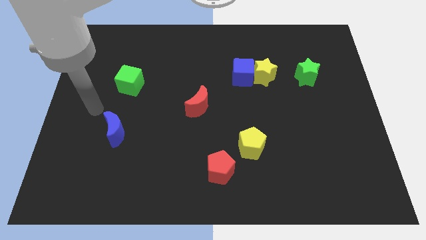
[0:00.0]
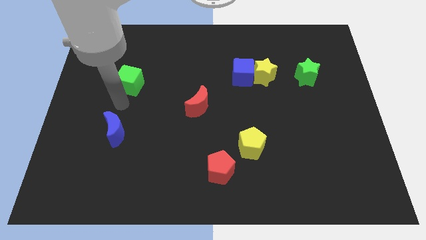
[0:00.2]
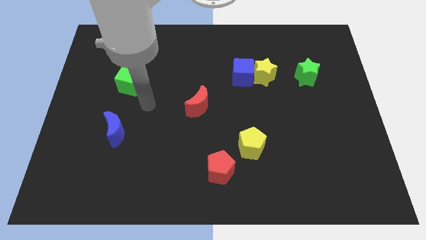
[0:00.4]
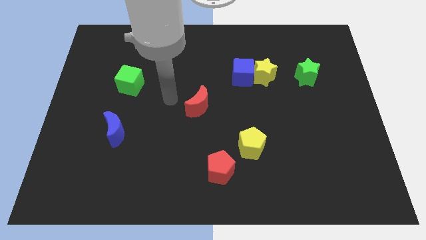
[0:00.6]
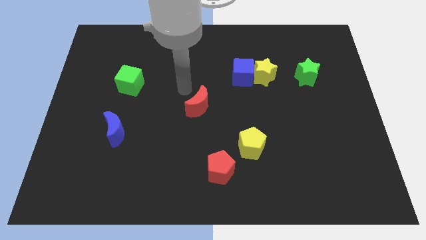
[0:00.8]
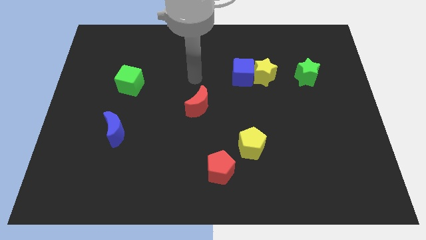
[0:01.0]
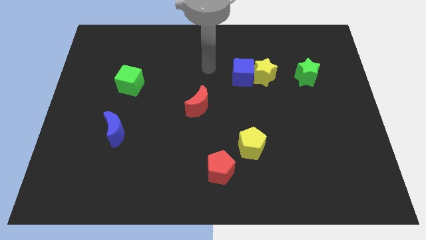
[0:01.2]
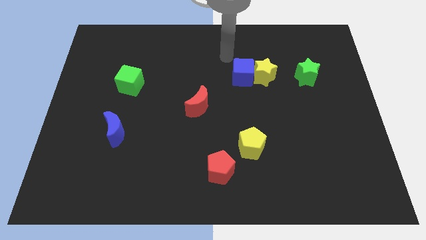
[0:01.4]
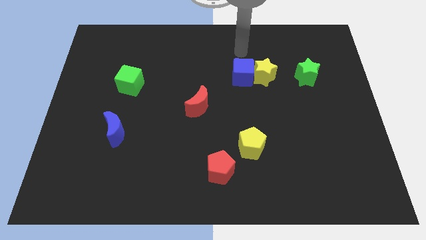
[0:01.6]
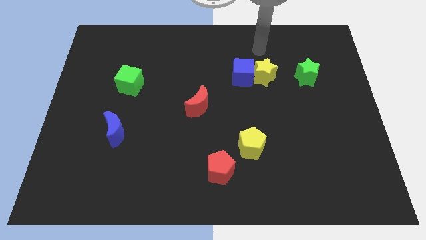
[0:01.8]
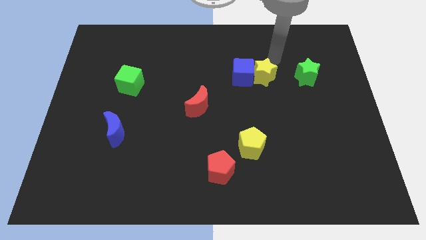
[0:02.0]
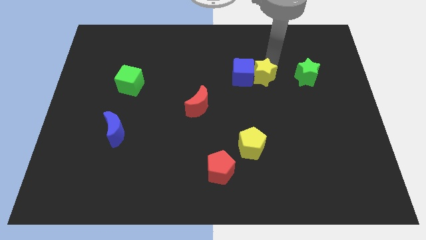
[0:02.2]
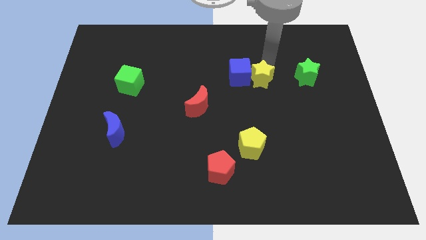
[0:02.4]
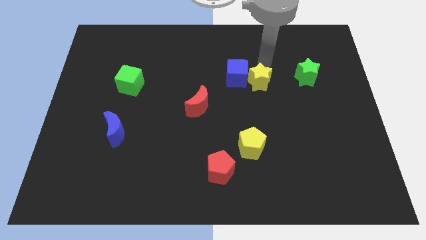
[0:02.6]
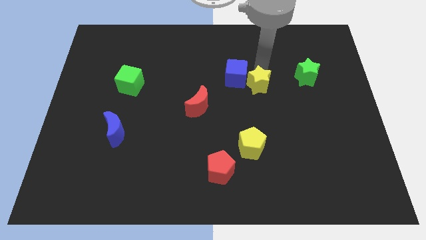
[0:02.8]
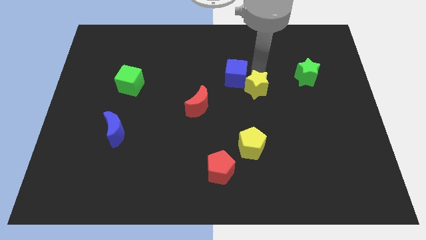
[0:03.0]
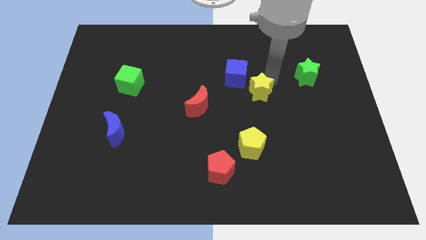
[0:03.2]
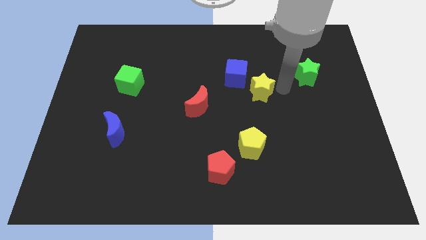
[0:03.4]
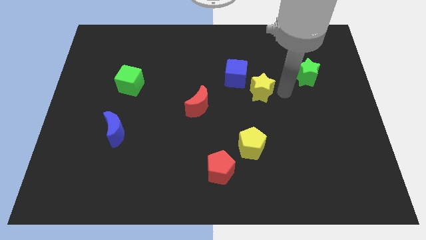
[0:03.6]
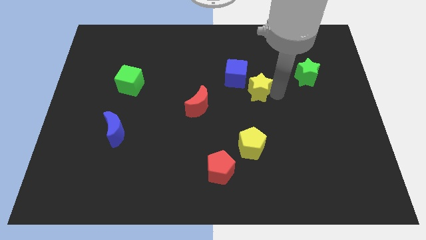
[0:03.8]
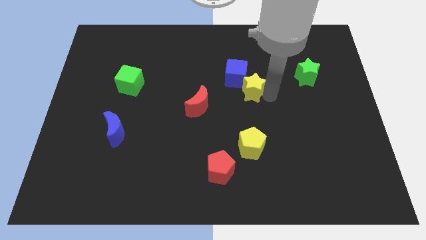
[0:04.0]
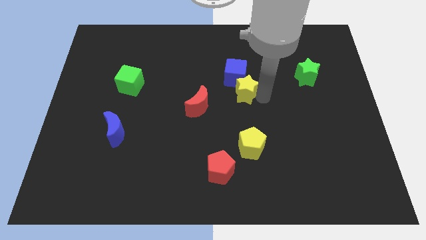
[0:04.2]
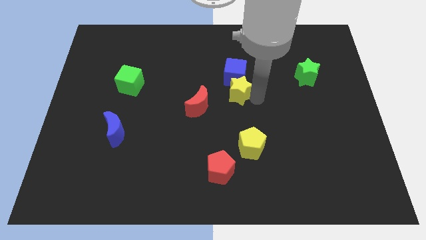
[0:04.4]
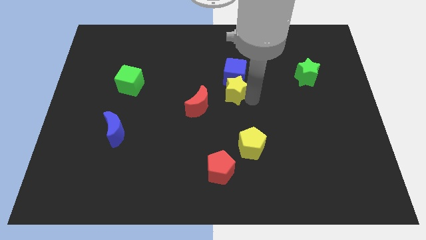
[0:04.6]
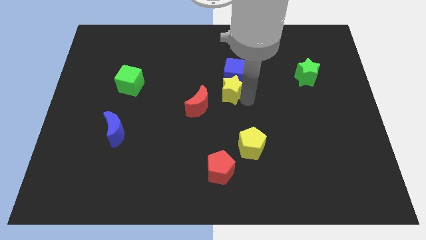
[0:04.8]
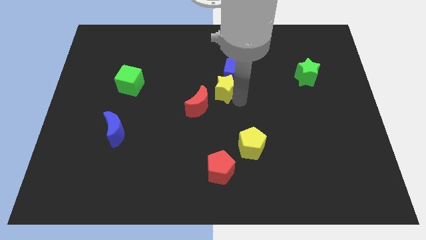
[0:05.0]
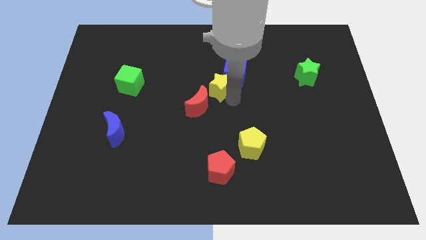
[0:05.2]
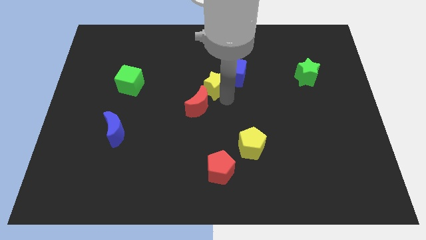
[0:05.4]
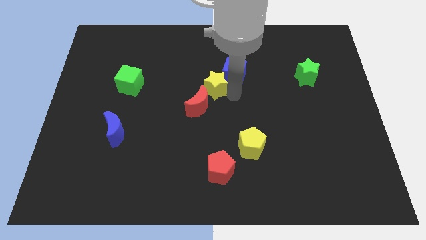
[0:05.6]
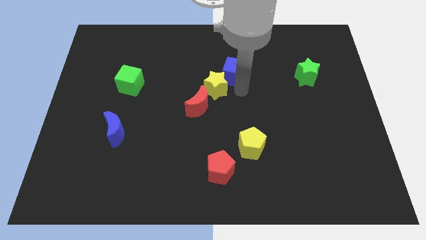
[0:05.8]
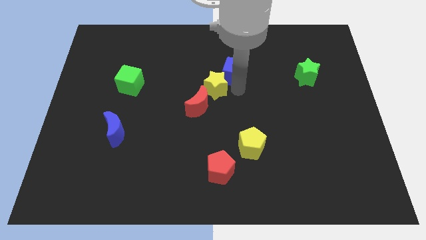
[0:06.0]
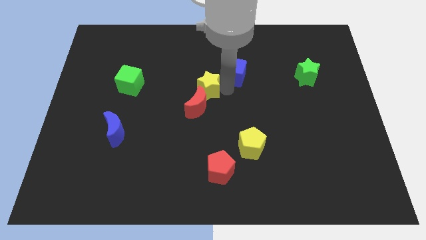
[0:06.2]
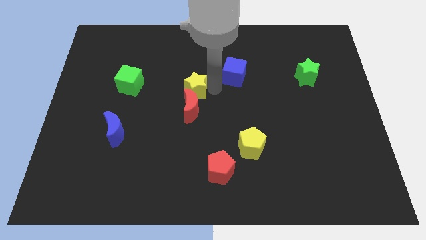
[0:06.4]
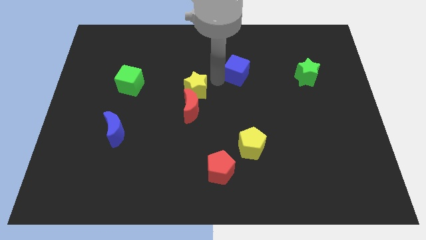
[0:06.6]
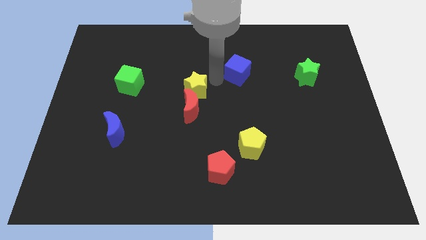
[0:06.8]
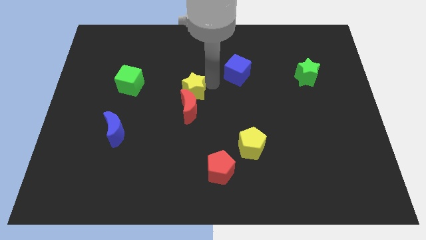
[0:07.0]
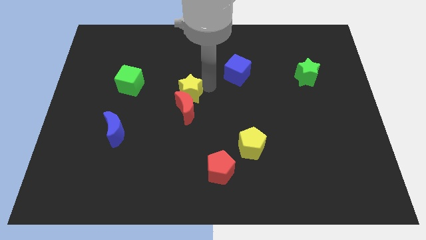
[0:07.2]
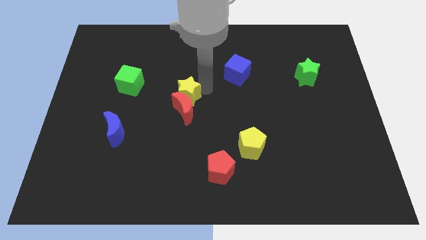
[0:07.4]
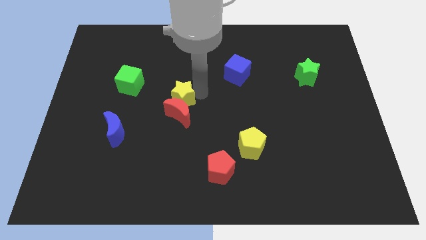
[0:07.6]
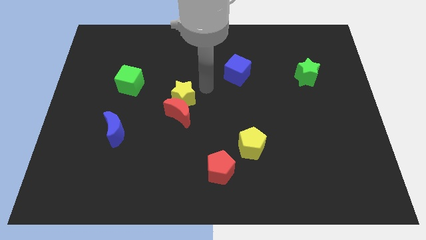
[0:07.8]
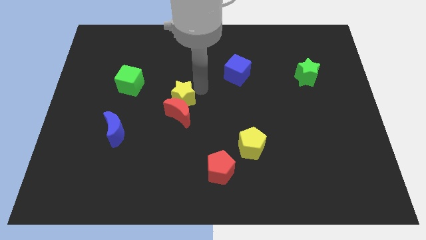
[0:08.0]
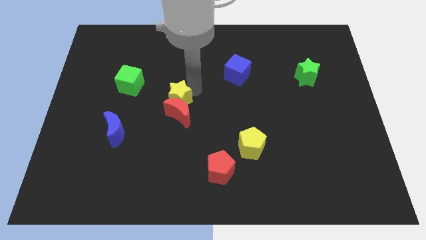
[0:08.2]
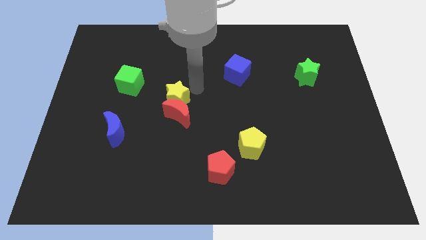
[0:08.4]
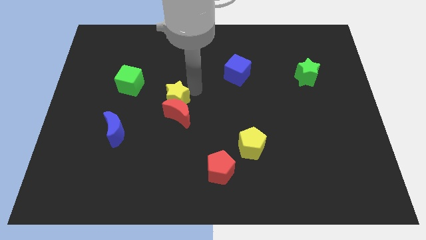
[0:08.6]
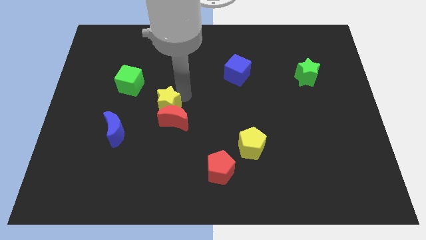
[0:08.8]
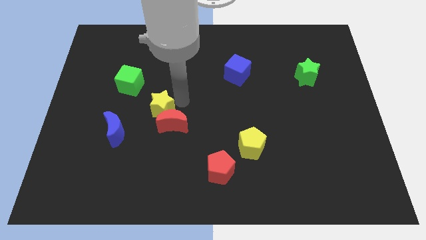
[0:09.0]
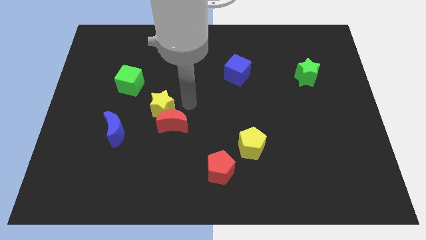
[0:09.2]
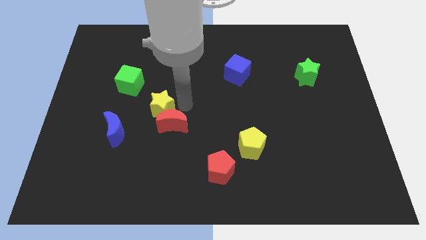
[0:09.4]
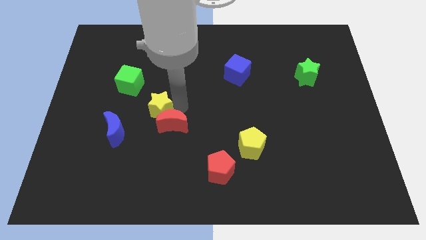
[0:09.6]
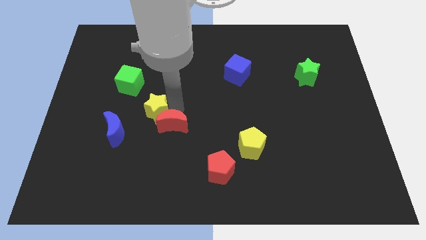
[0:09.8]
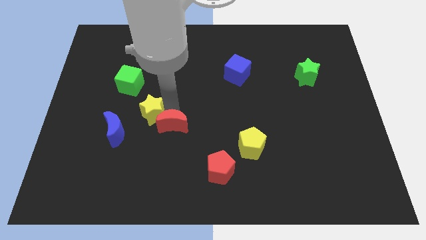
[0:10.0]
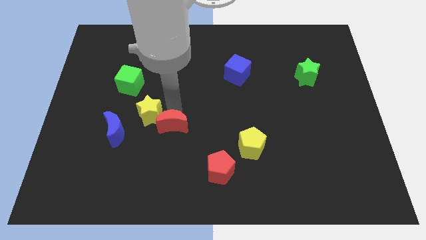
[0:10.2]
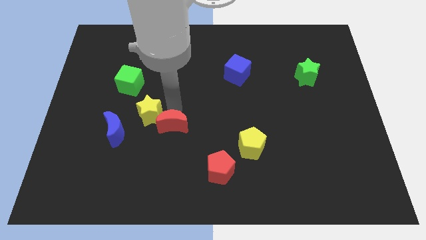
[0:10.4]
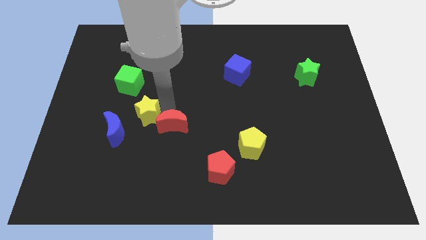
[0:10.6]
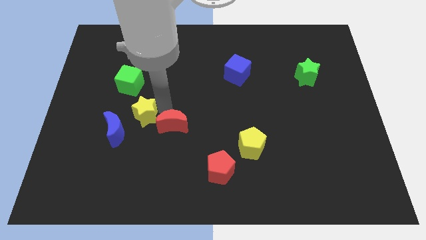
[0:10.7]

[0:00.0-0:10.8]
put the yellow star to the bottom of the green cube

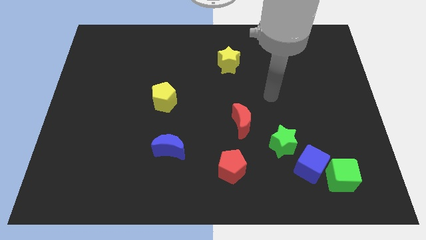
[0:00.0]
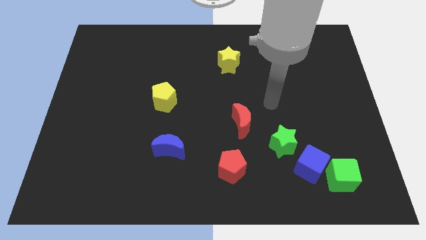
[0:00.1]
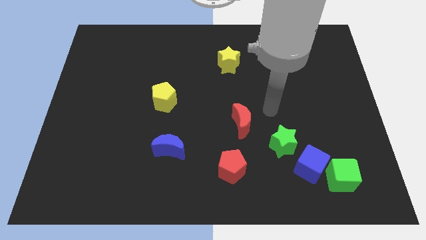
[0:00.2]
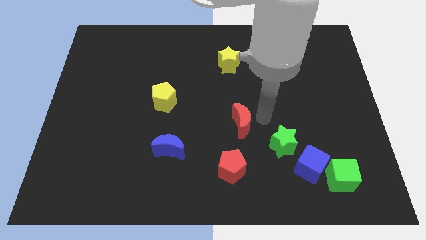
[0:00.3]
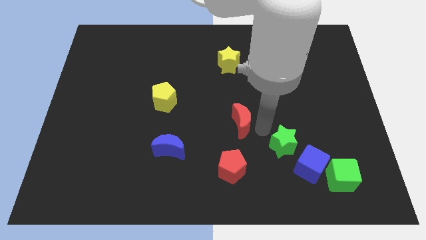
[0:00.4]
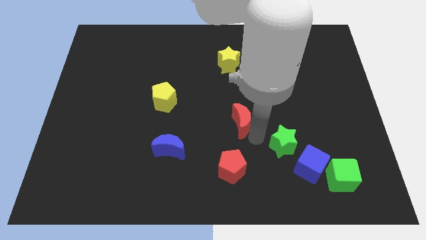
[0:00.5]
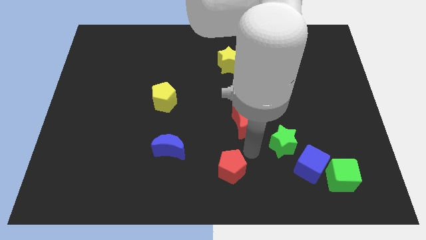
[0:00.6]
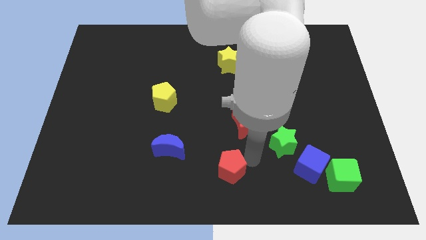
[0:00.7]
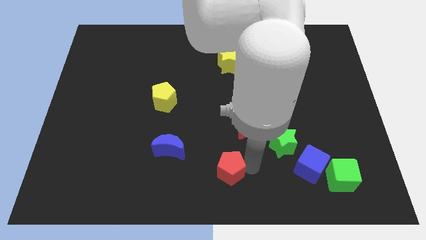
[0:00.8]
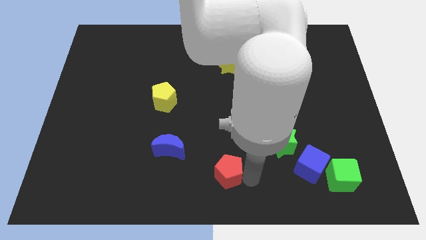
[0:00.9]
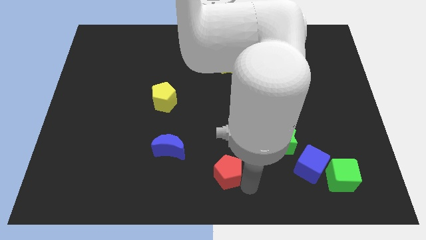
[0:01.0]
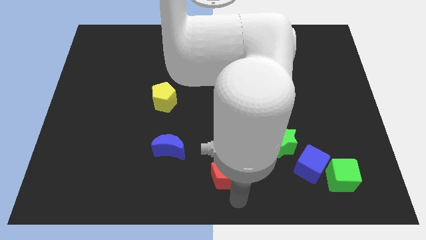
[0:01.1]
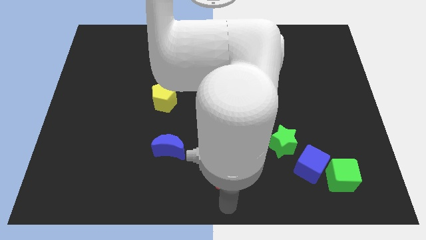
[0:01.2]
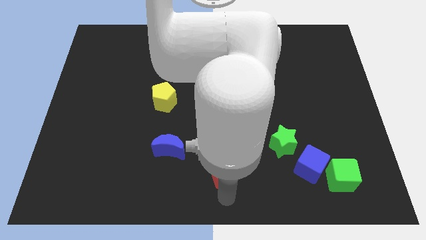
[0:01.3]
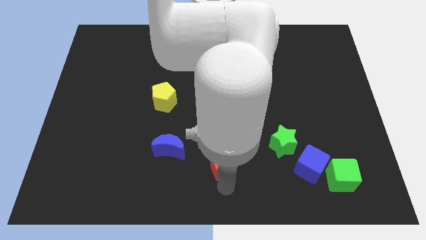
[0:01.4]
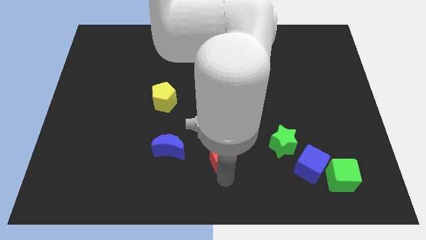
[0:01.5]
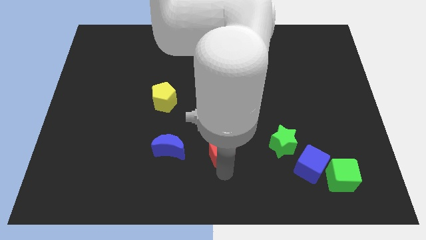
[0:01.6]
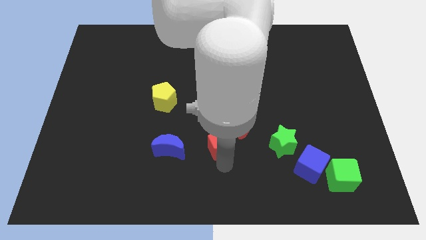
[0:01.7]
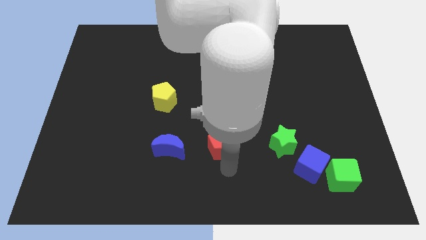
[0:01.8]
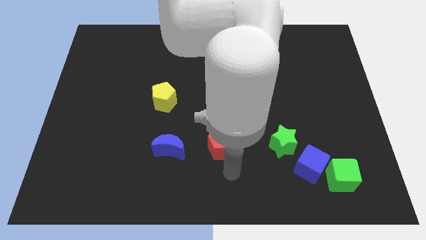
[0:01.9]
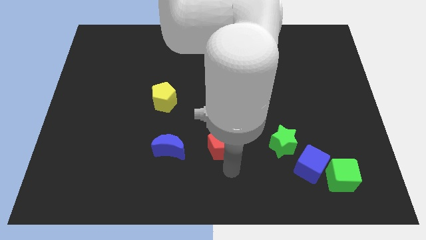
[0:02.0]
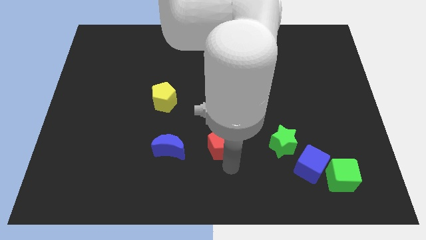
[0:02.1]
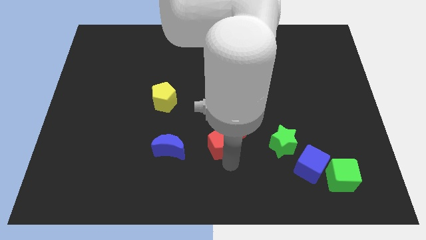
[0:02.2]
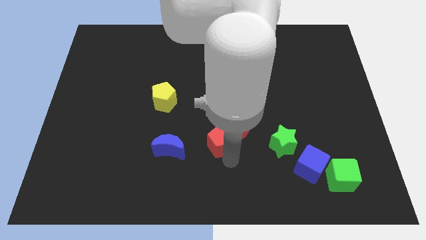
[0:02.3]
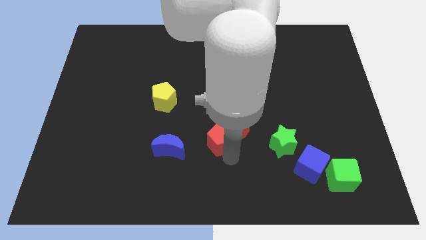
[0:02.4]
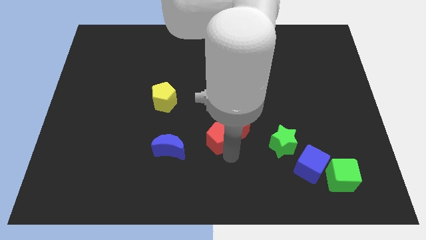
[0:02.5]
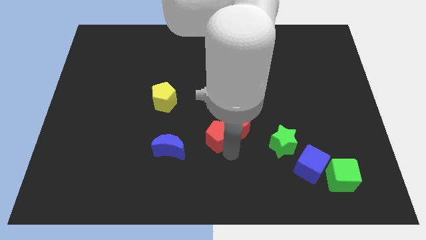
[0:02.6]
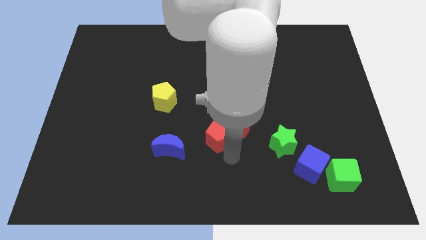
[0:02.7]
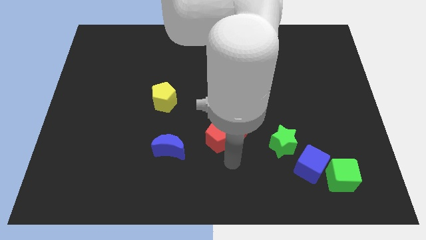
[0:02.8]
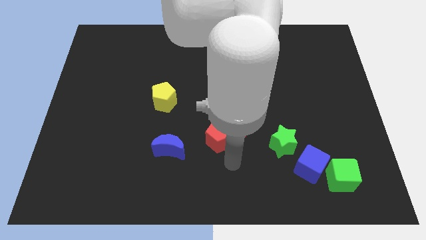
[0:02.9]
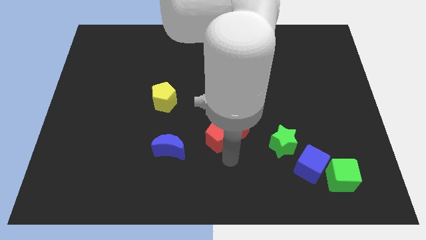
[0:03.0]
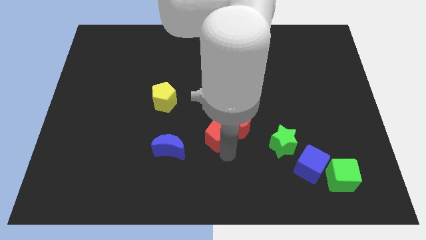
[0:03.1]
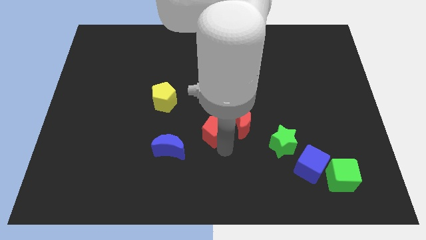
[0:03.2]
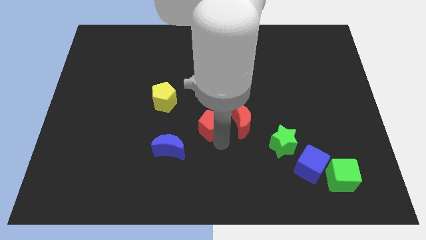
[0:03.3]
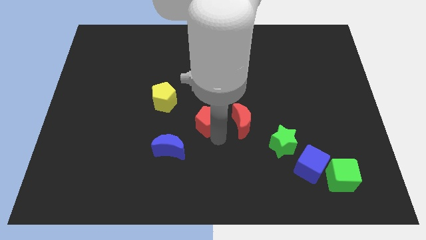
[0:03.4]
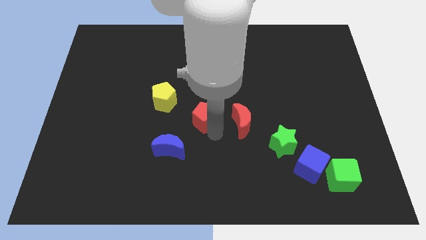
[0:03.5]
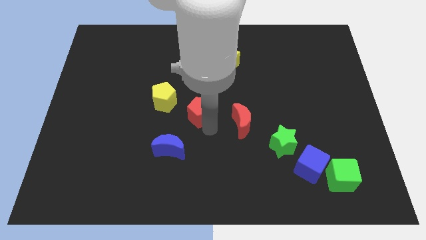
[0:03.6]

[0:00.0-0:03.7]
push the red pentagon to the right of the yellow pentagon
